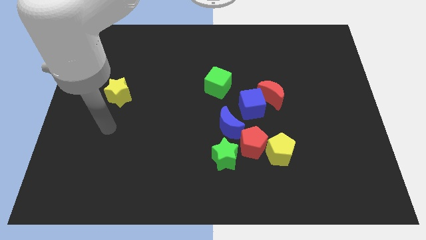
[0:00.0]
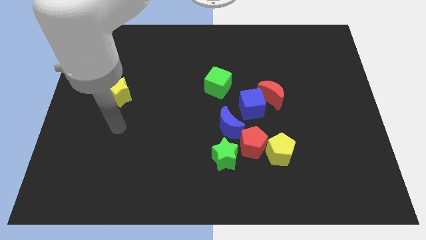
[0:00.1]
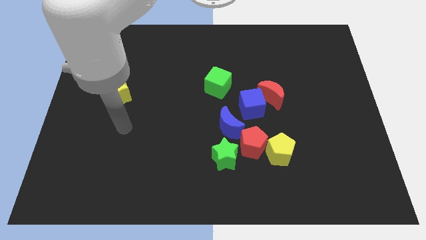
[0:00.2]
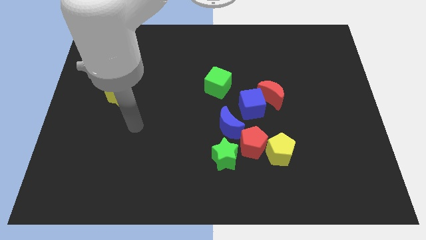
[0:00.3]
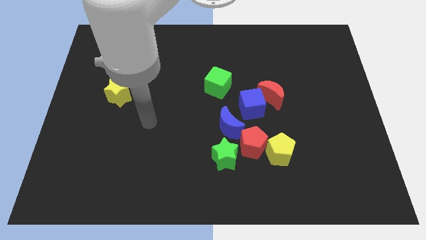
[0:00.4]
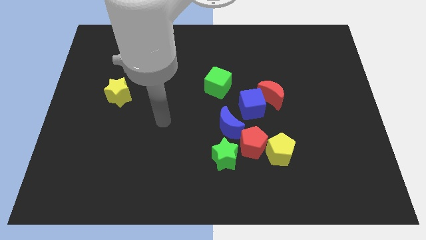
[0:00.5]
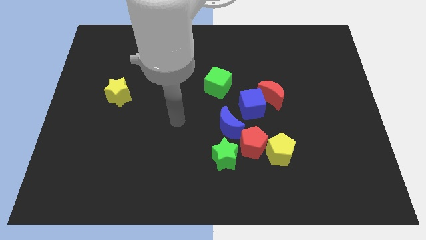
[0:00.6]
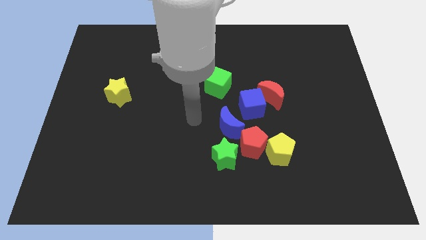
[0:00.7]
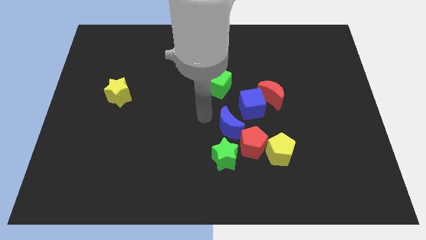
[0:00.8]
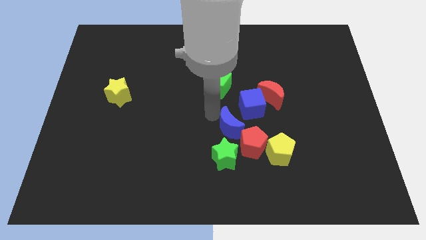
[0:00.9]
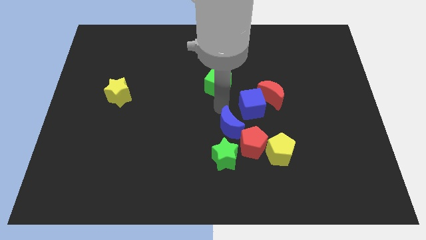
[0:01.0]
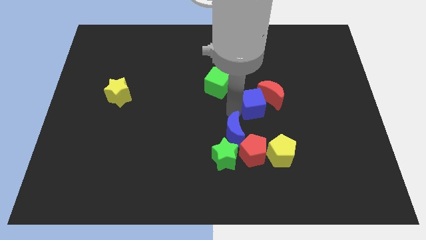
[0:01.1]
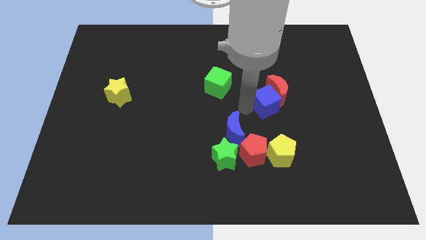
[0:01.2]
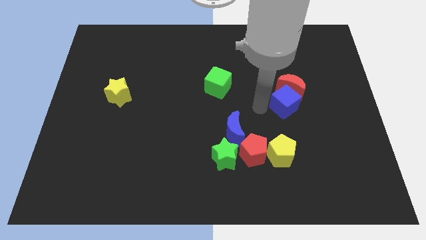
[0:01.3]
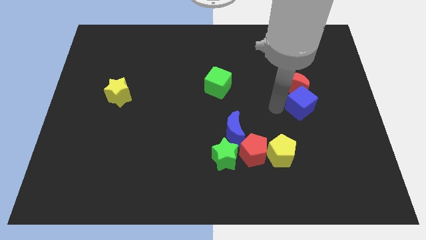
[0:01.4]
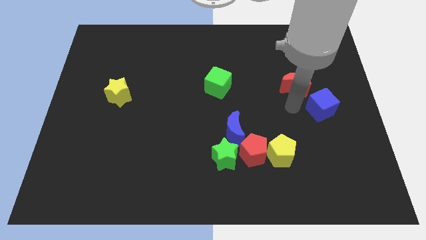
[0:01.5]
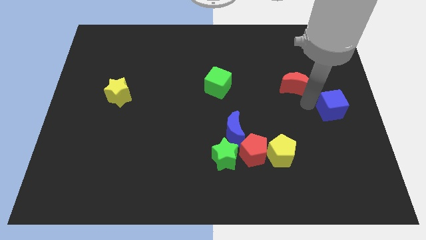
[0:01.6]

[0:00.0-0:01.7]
move the red moon away from the blue cube

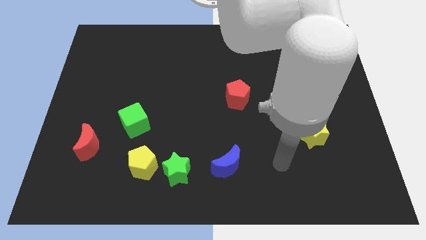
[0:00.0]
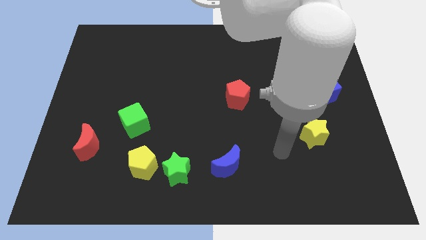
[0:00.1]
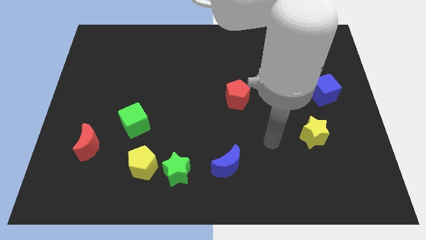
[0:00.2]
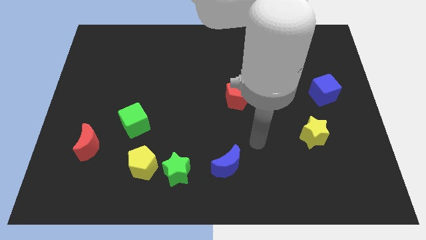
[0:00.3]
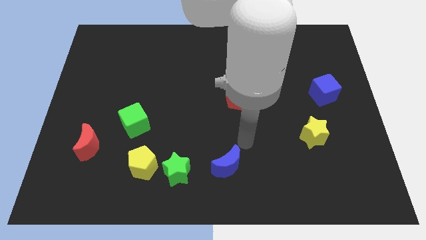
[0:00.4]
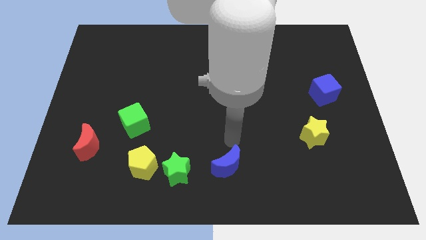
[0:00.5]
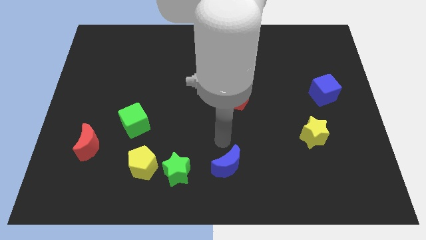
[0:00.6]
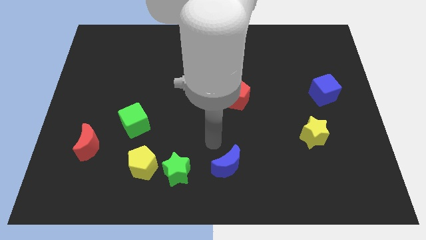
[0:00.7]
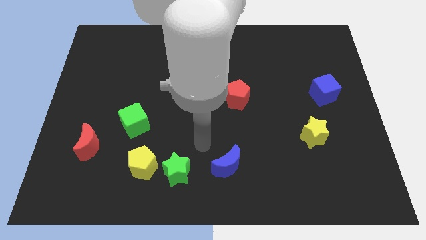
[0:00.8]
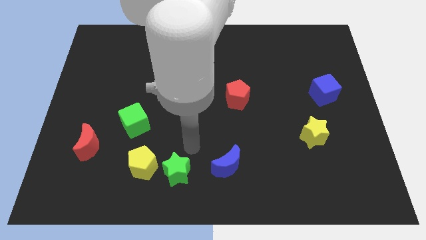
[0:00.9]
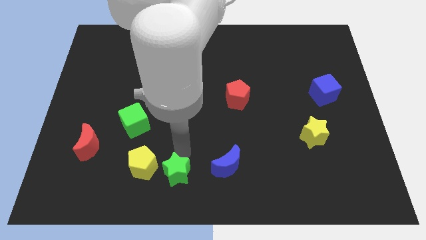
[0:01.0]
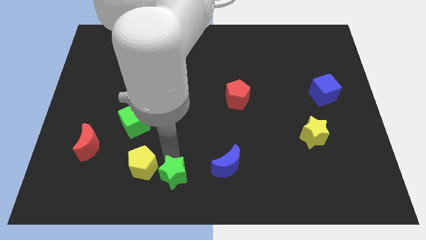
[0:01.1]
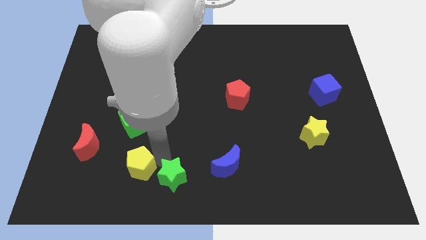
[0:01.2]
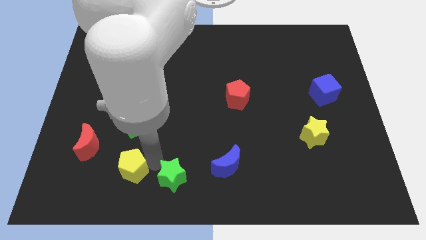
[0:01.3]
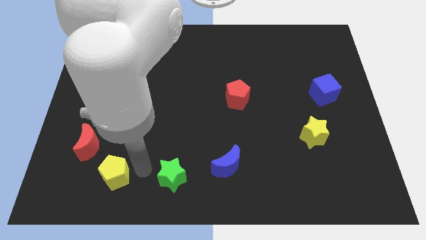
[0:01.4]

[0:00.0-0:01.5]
move the green star away from the yellow pentagon

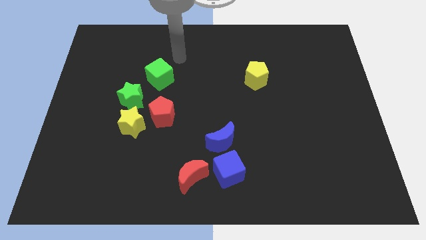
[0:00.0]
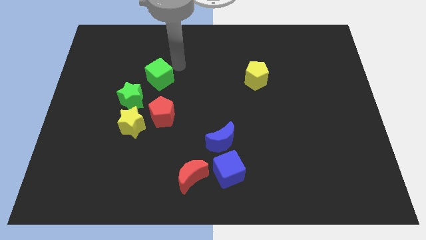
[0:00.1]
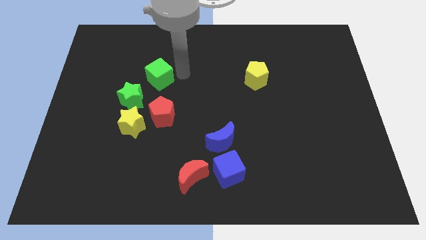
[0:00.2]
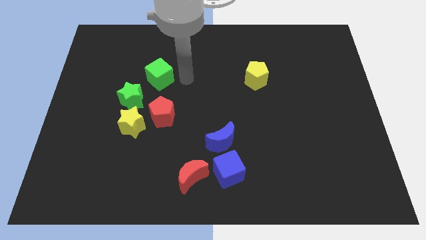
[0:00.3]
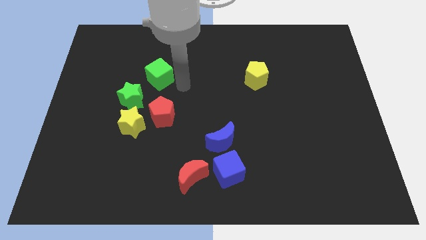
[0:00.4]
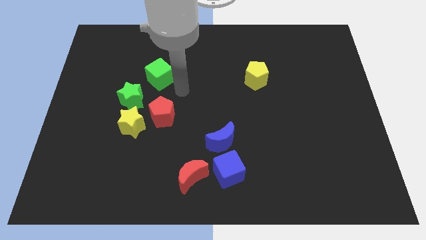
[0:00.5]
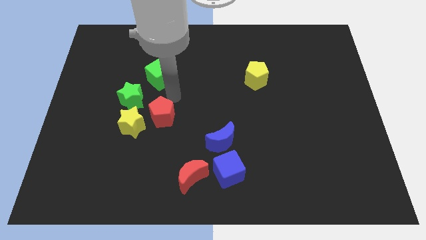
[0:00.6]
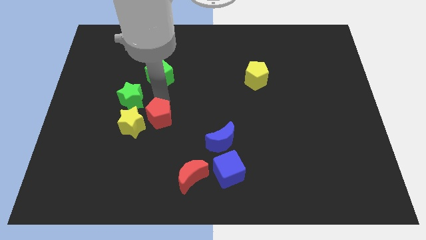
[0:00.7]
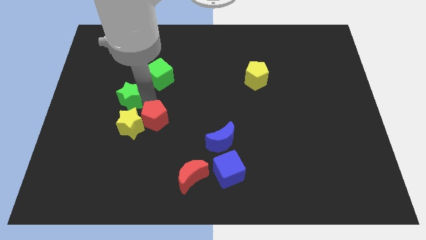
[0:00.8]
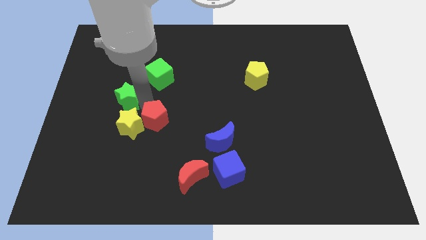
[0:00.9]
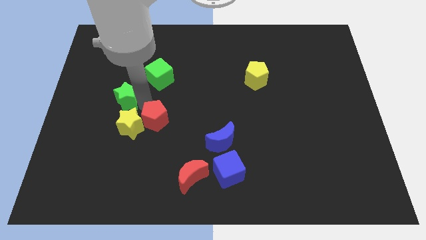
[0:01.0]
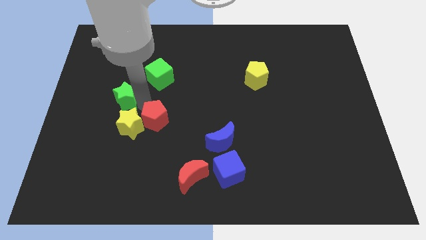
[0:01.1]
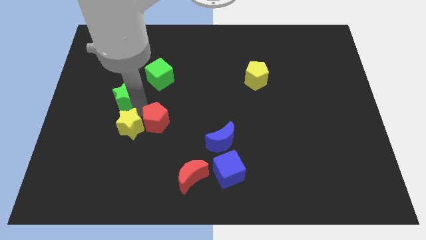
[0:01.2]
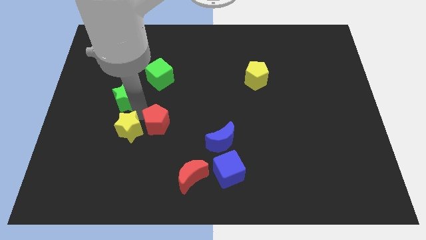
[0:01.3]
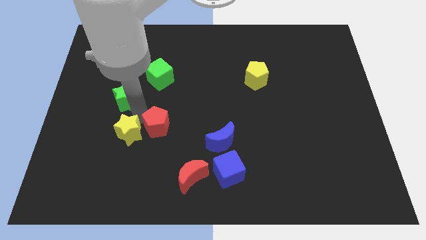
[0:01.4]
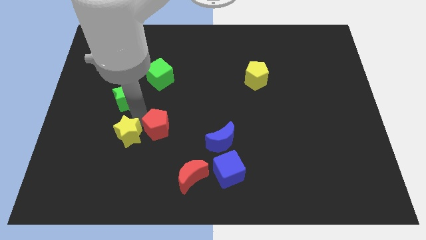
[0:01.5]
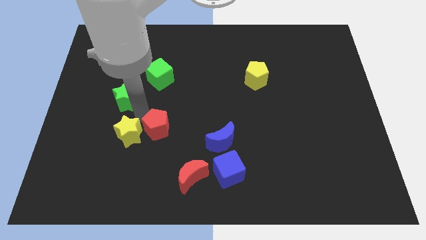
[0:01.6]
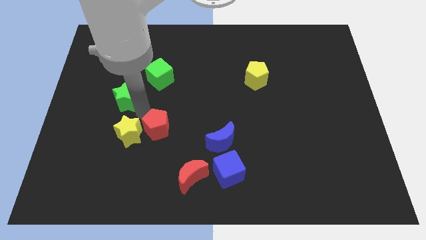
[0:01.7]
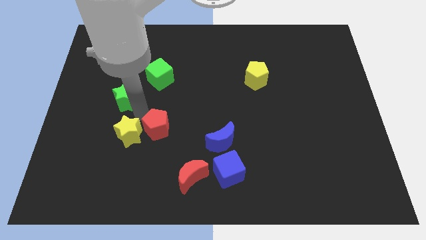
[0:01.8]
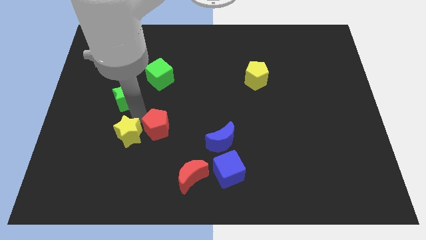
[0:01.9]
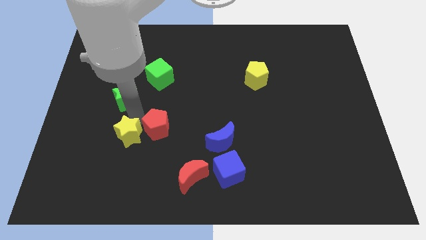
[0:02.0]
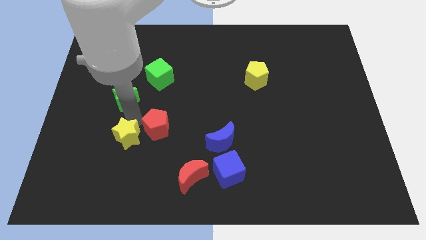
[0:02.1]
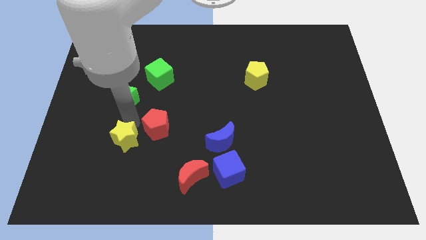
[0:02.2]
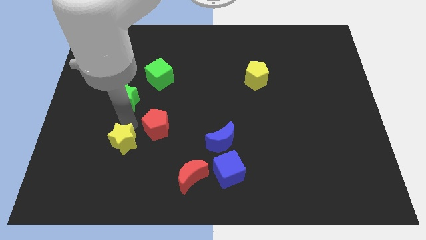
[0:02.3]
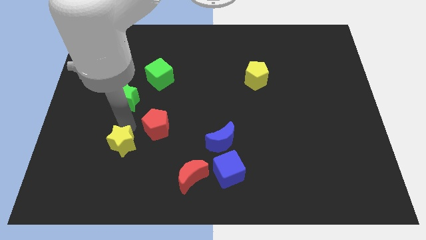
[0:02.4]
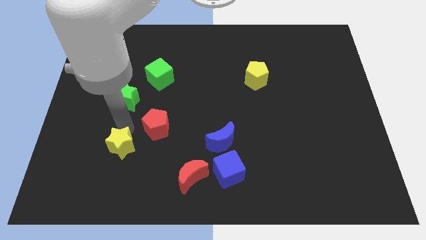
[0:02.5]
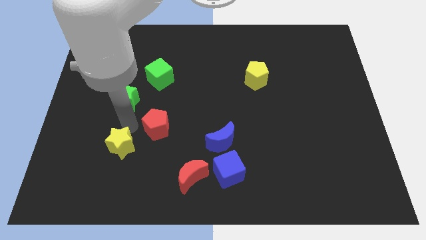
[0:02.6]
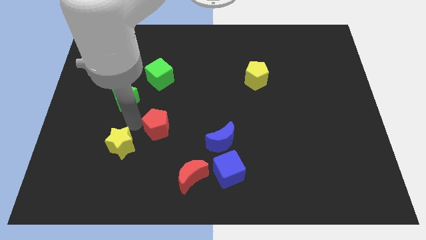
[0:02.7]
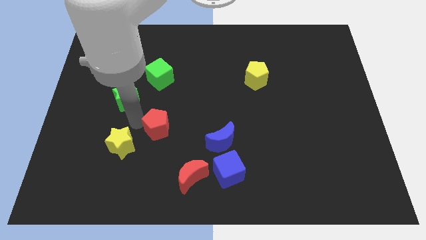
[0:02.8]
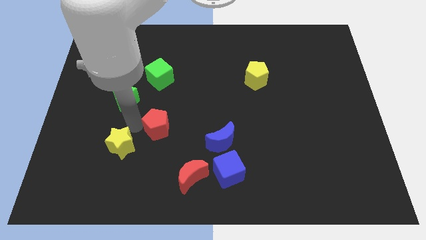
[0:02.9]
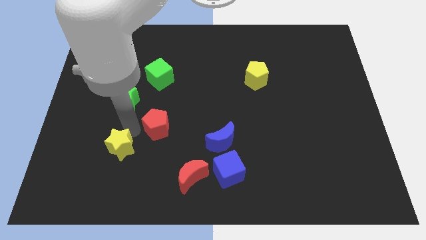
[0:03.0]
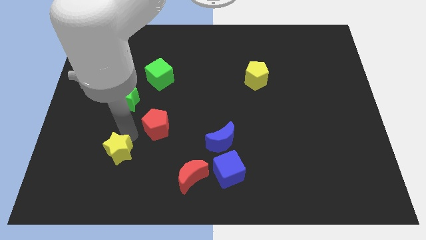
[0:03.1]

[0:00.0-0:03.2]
pull the yellow star apart from the red pentagon and green star

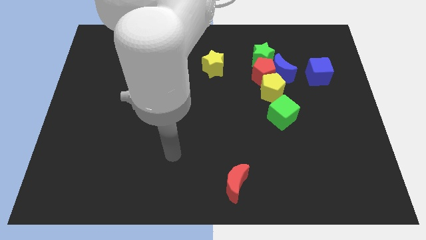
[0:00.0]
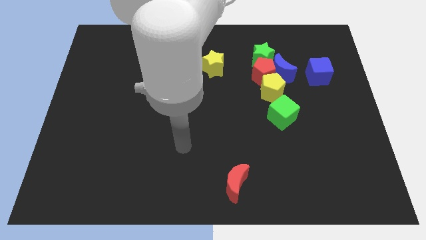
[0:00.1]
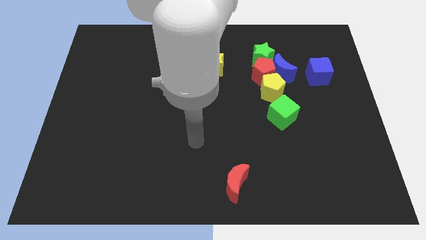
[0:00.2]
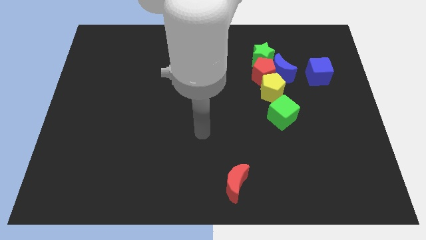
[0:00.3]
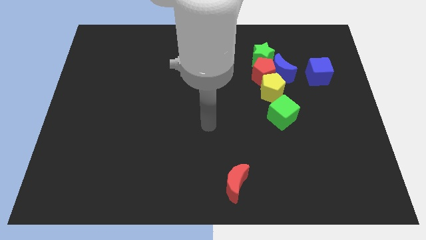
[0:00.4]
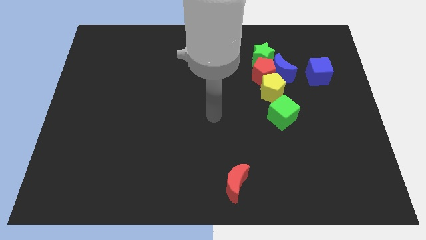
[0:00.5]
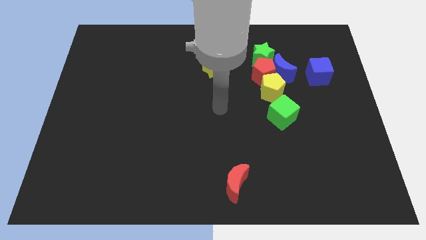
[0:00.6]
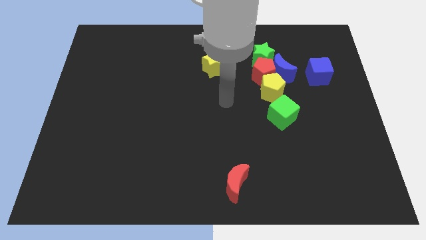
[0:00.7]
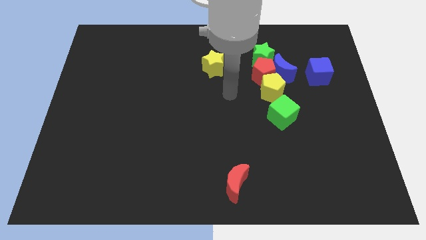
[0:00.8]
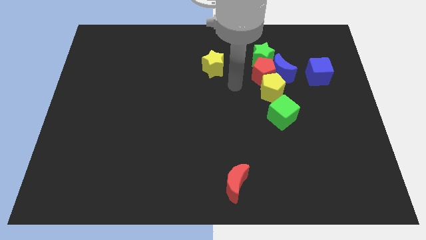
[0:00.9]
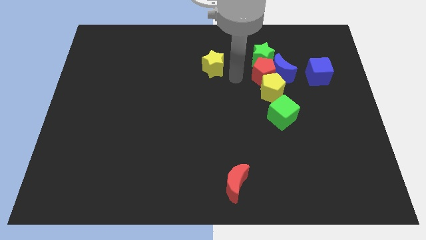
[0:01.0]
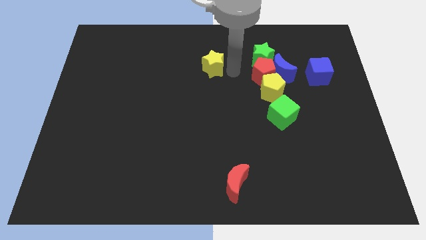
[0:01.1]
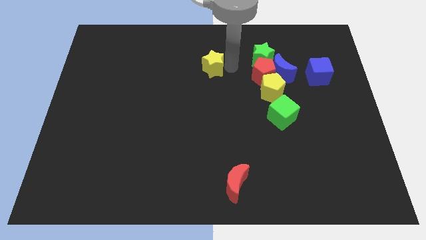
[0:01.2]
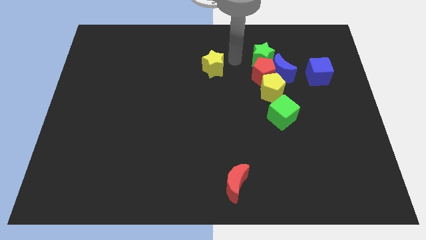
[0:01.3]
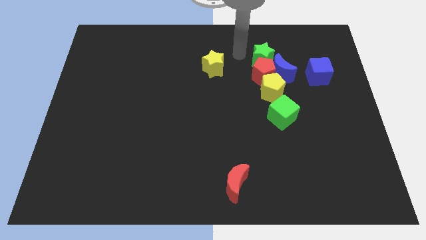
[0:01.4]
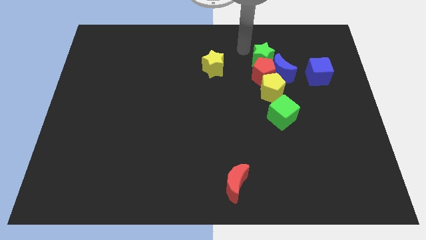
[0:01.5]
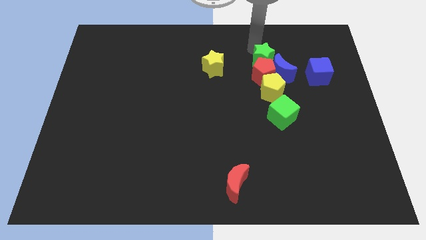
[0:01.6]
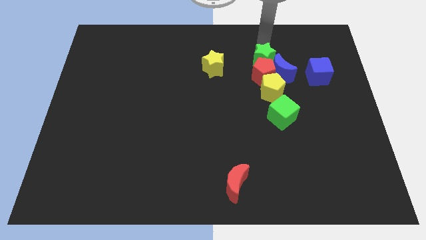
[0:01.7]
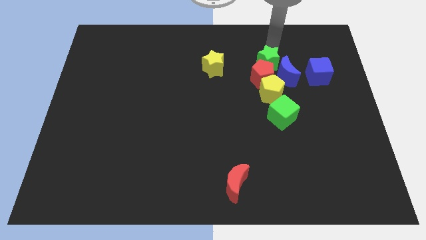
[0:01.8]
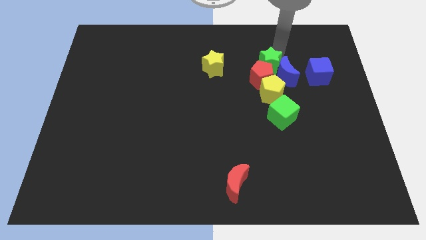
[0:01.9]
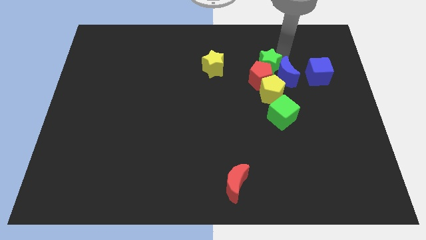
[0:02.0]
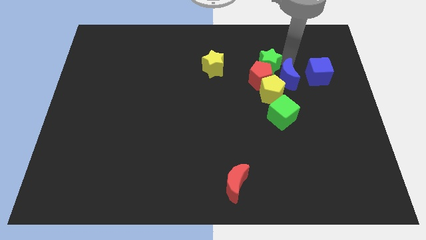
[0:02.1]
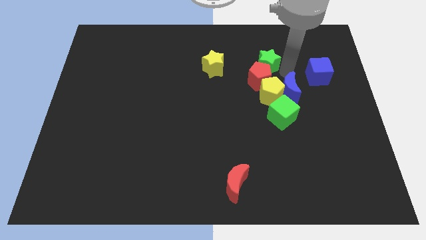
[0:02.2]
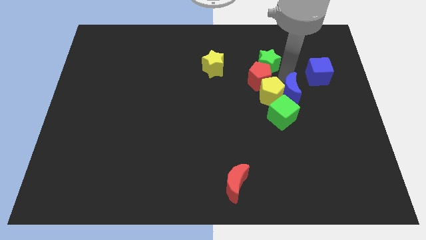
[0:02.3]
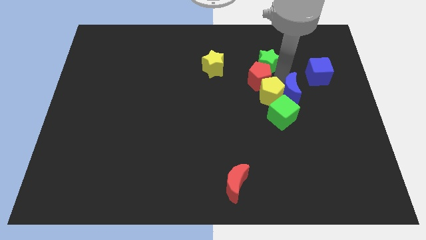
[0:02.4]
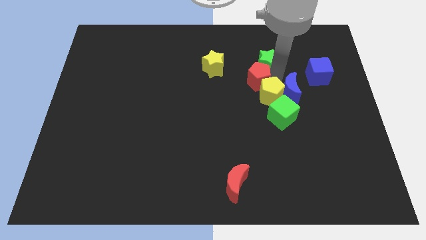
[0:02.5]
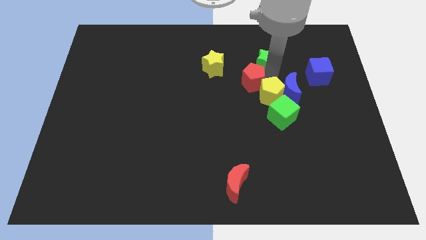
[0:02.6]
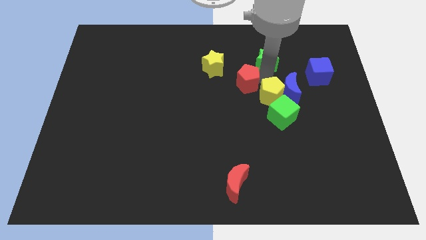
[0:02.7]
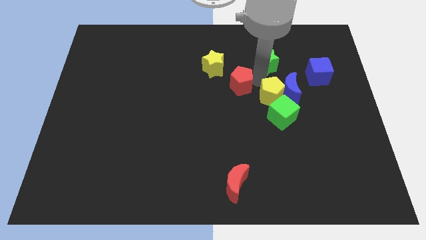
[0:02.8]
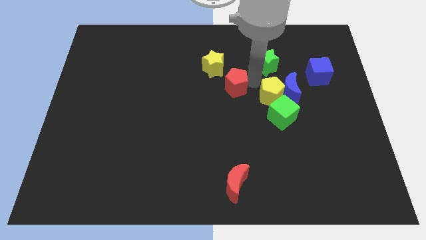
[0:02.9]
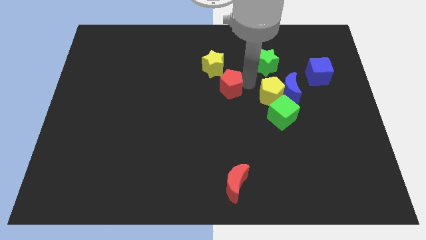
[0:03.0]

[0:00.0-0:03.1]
separate the red pentagon from the blue moon, yellow pentagon, and green star
